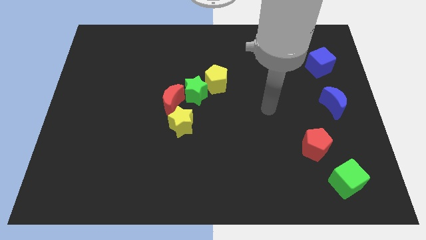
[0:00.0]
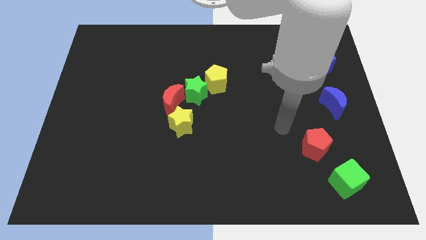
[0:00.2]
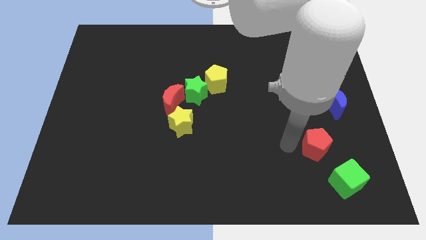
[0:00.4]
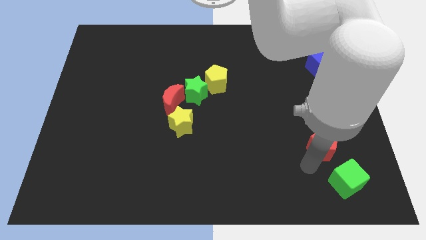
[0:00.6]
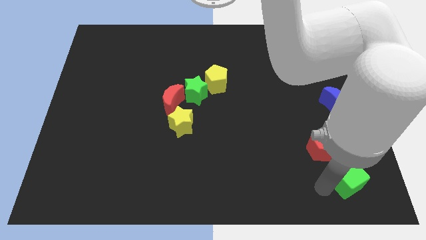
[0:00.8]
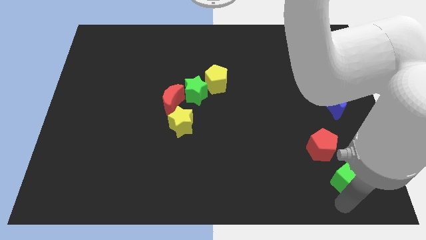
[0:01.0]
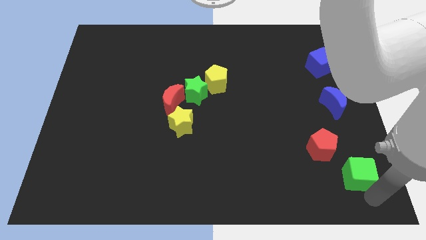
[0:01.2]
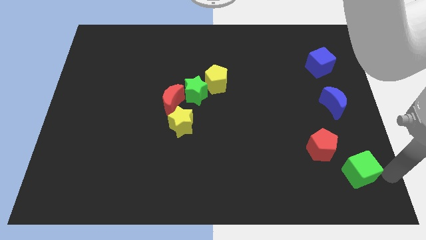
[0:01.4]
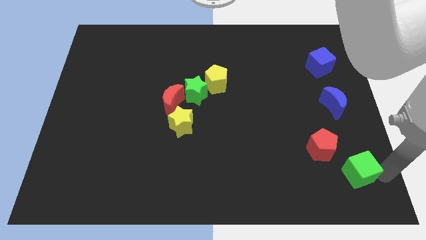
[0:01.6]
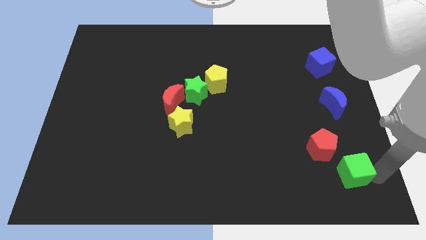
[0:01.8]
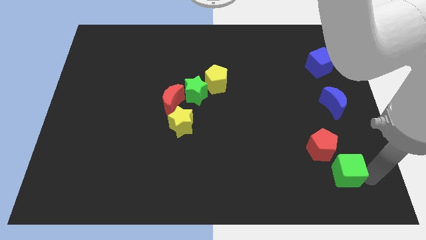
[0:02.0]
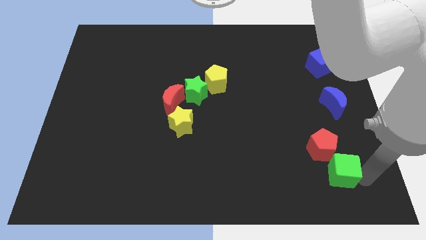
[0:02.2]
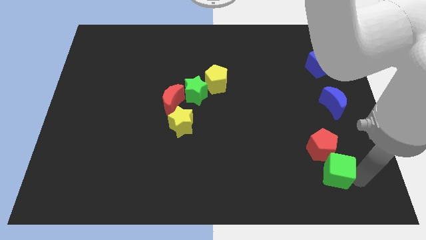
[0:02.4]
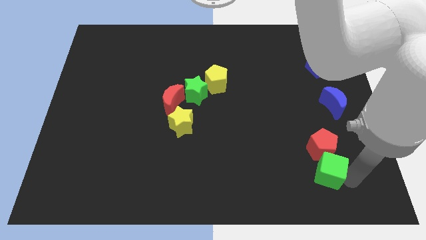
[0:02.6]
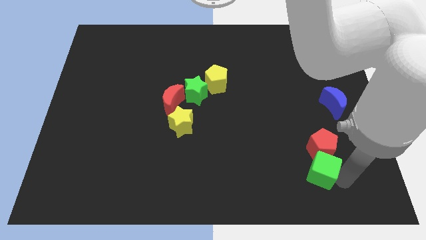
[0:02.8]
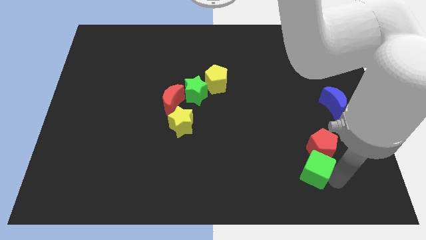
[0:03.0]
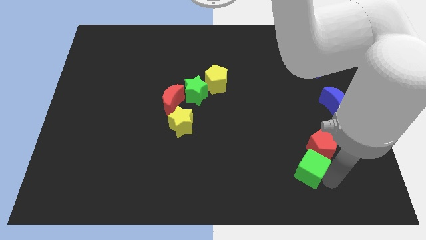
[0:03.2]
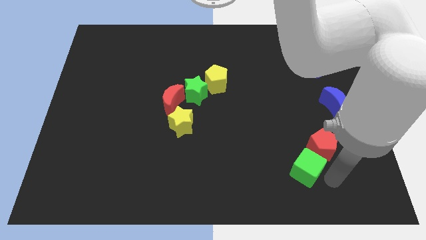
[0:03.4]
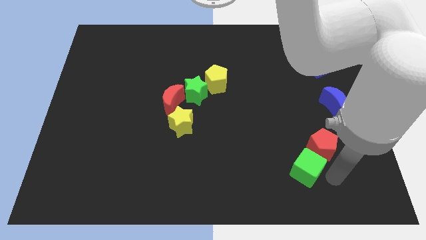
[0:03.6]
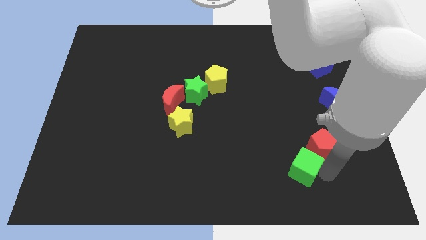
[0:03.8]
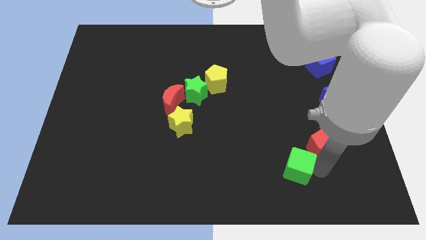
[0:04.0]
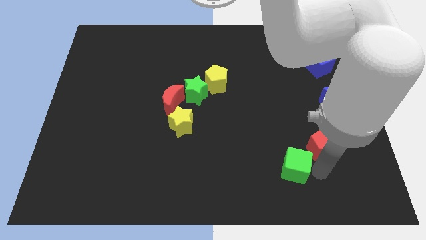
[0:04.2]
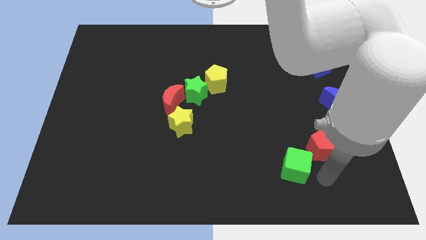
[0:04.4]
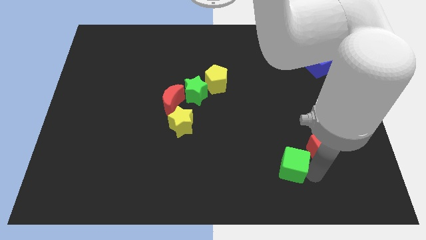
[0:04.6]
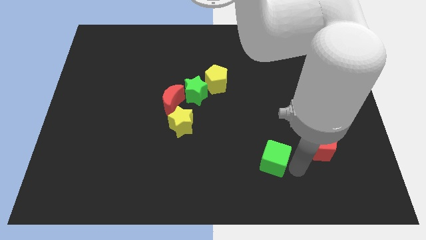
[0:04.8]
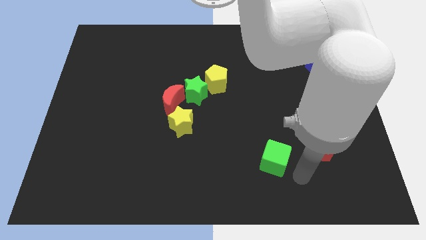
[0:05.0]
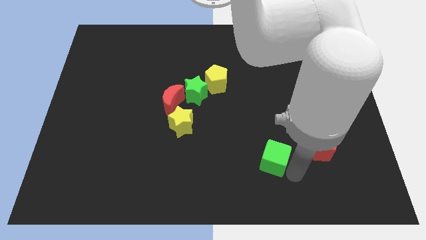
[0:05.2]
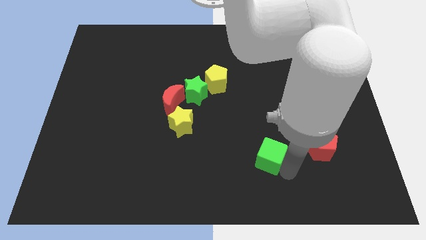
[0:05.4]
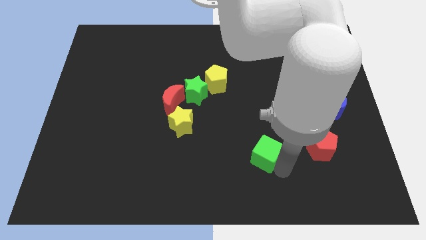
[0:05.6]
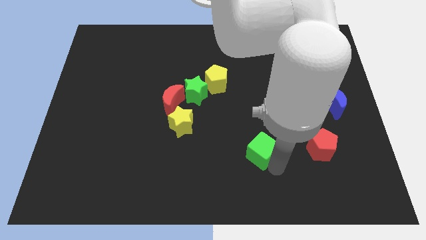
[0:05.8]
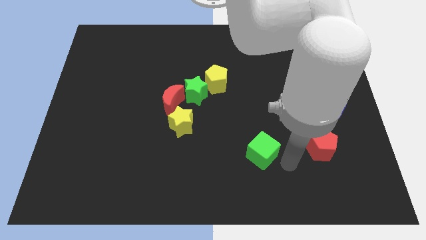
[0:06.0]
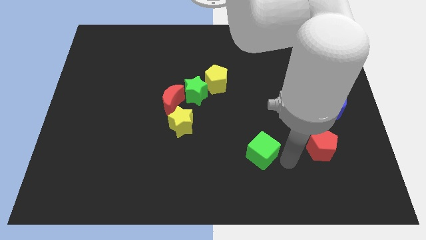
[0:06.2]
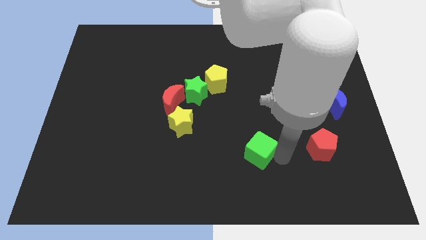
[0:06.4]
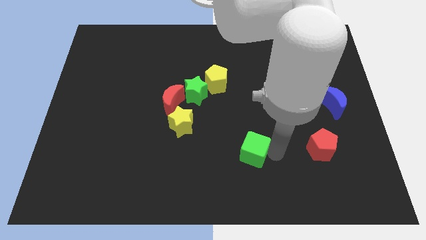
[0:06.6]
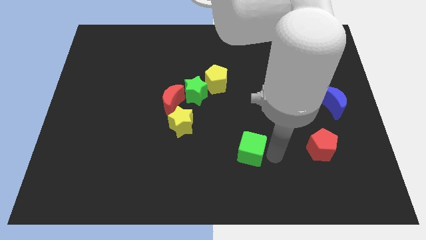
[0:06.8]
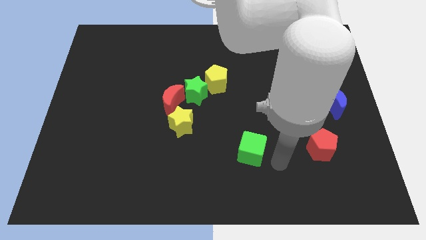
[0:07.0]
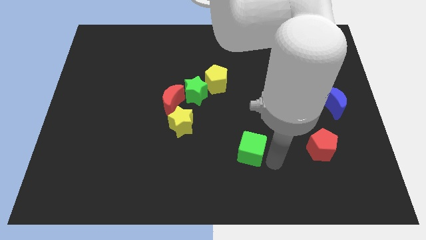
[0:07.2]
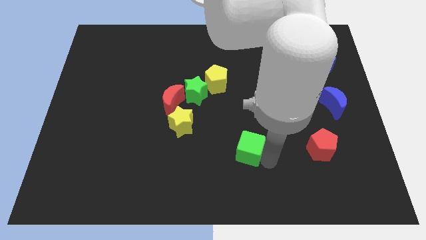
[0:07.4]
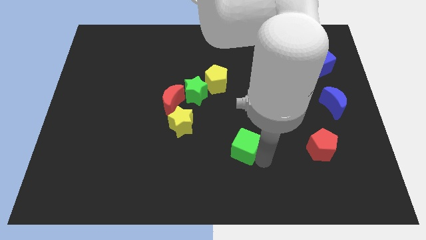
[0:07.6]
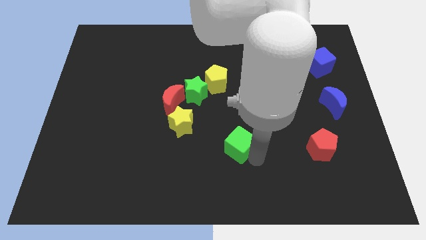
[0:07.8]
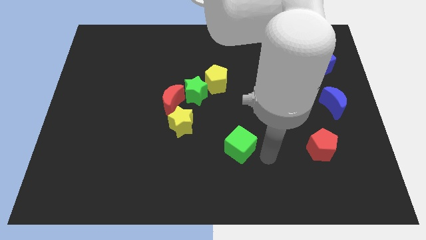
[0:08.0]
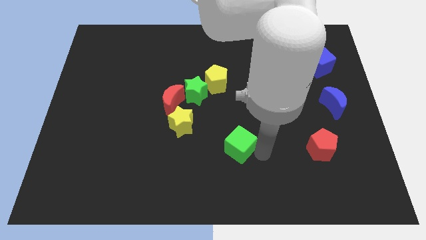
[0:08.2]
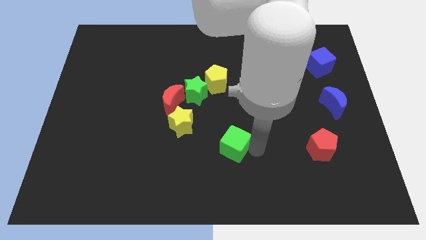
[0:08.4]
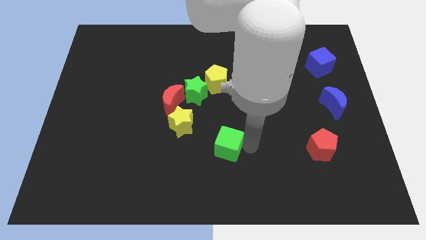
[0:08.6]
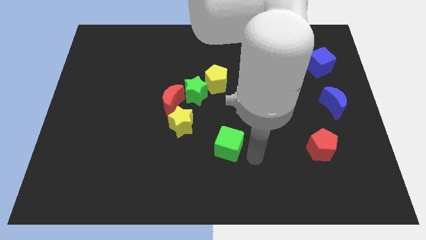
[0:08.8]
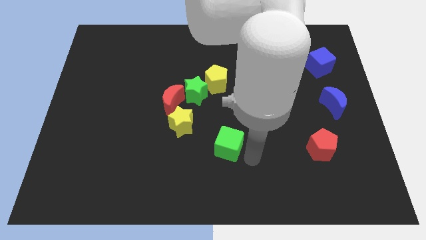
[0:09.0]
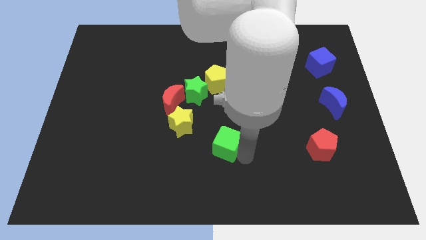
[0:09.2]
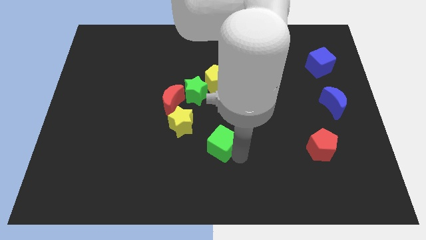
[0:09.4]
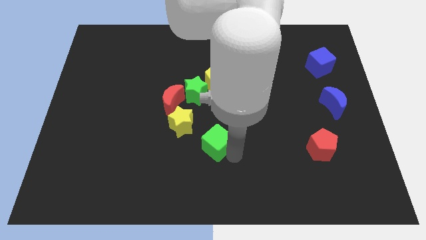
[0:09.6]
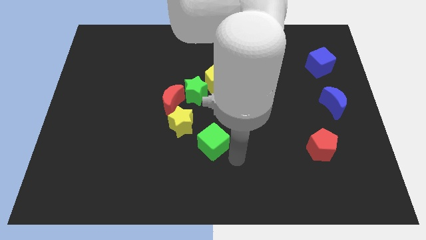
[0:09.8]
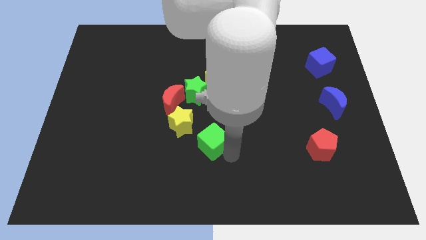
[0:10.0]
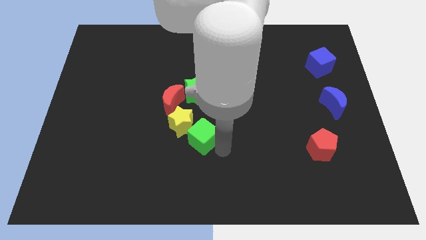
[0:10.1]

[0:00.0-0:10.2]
put the green cube next to the yellow star

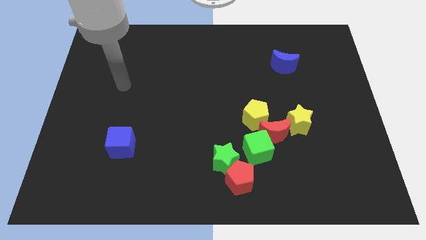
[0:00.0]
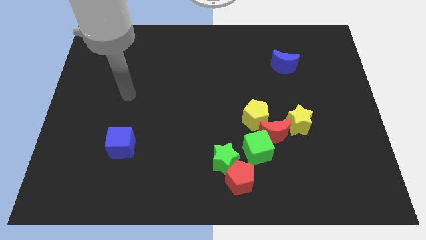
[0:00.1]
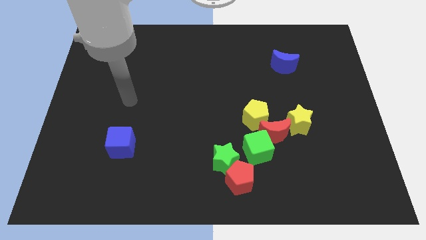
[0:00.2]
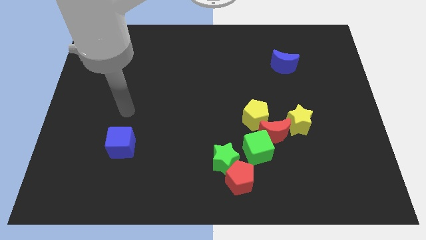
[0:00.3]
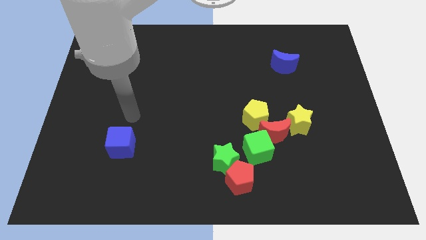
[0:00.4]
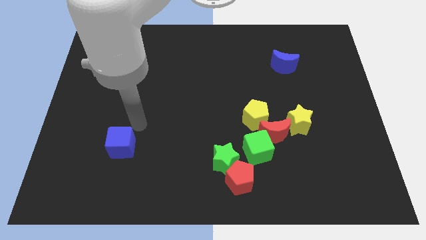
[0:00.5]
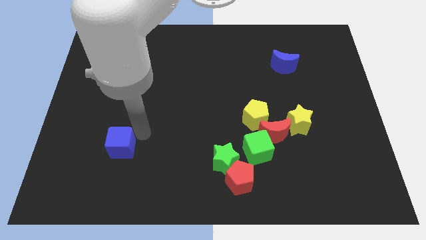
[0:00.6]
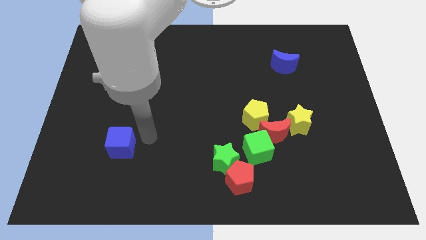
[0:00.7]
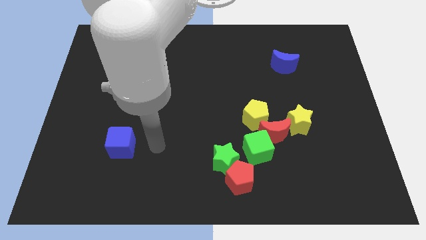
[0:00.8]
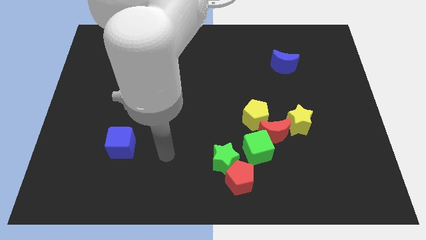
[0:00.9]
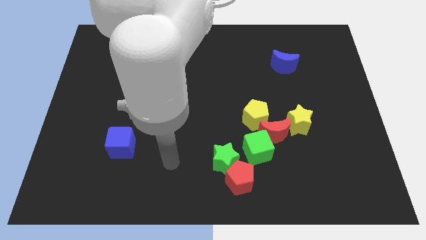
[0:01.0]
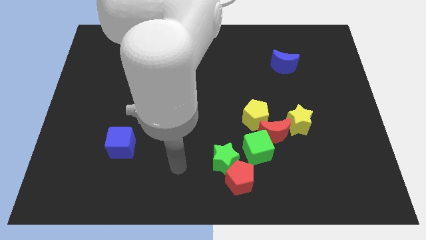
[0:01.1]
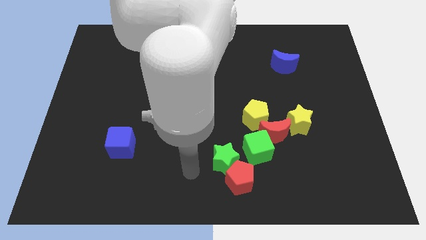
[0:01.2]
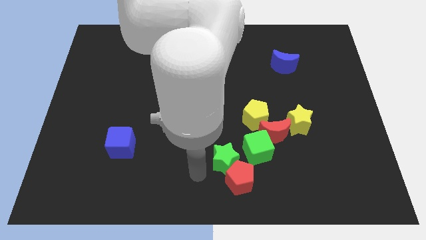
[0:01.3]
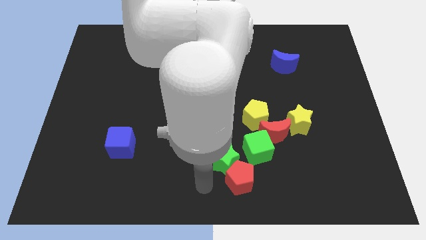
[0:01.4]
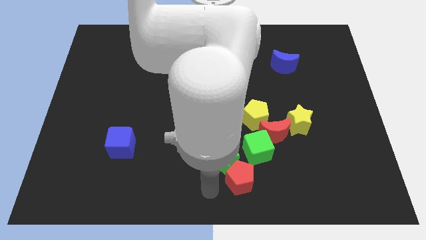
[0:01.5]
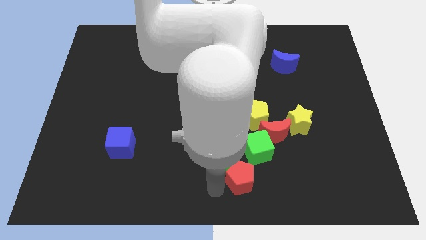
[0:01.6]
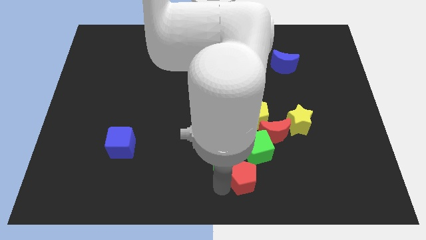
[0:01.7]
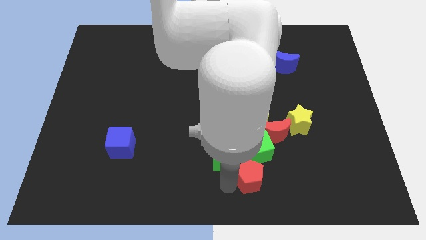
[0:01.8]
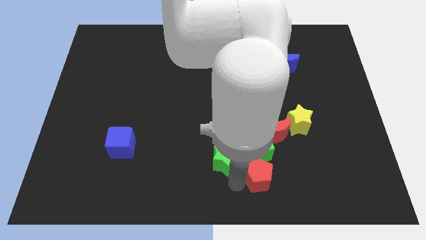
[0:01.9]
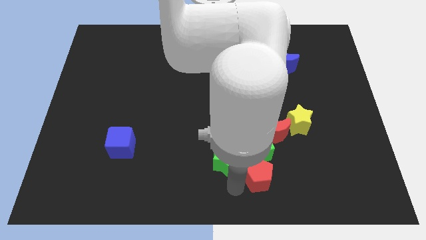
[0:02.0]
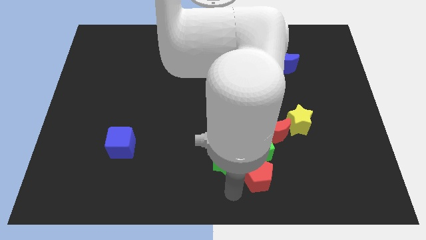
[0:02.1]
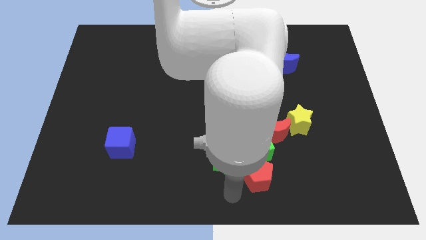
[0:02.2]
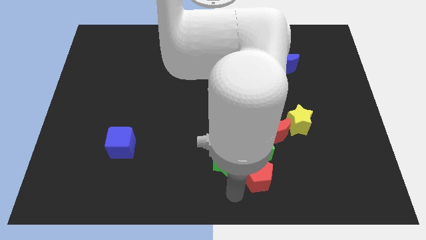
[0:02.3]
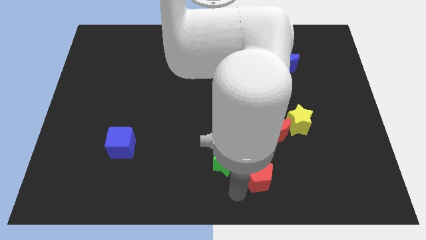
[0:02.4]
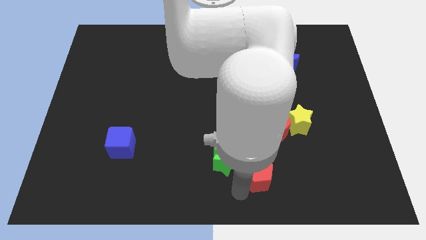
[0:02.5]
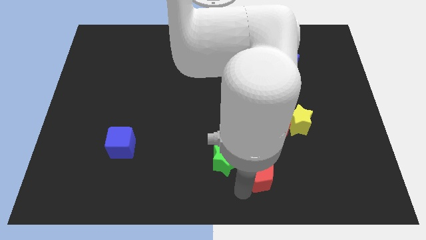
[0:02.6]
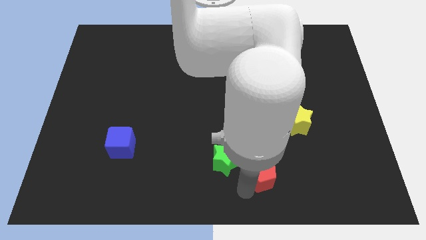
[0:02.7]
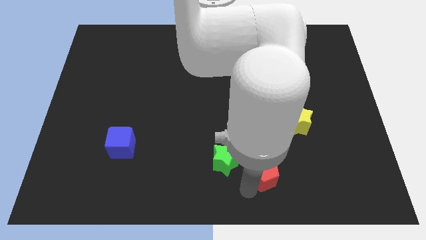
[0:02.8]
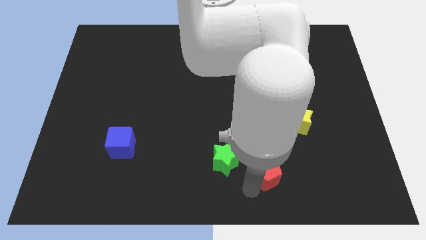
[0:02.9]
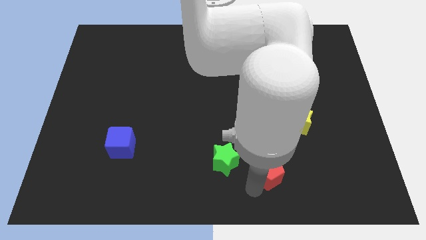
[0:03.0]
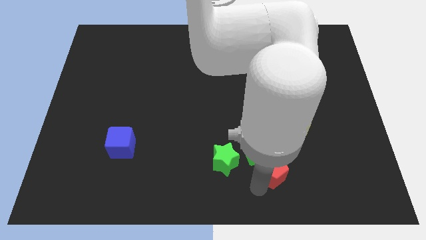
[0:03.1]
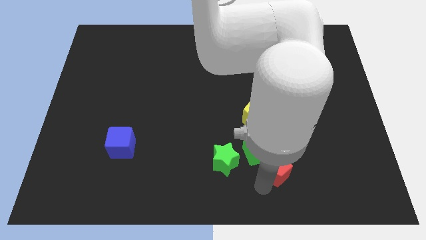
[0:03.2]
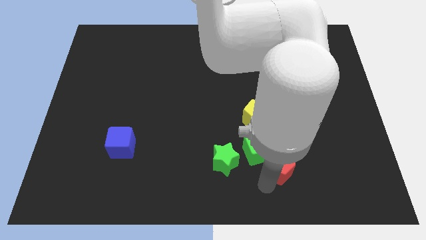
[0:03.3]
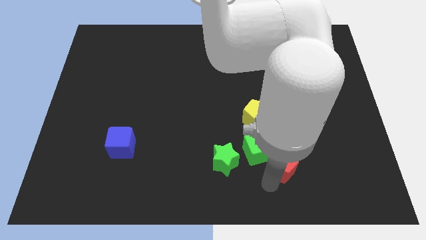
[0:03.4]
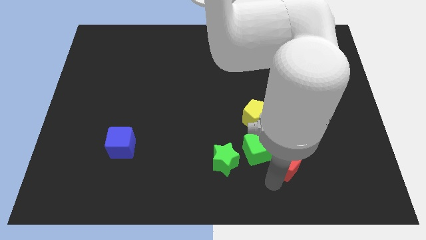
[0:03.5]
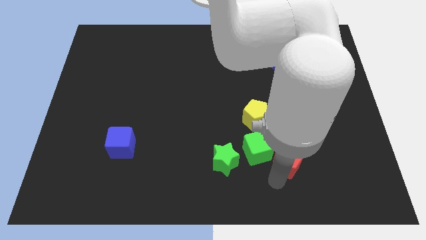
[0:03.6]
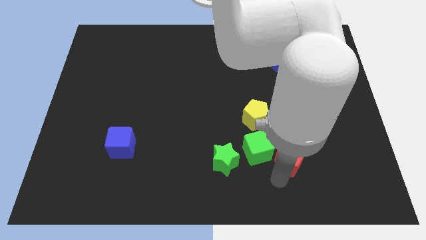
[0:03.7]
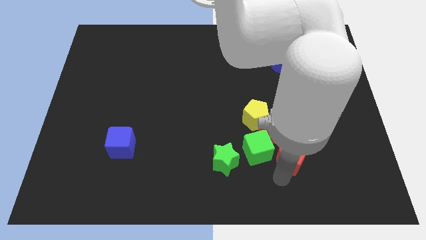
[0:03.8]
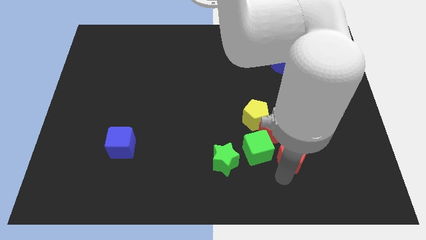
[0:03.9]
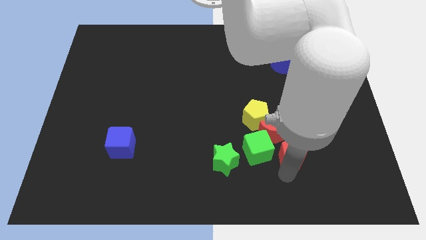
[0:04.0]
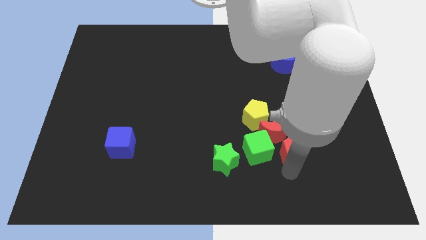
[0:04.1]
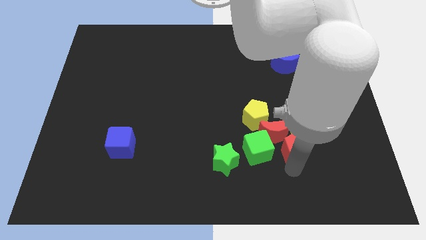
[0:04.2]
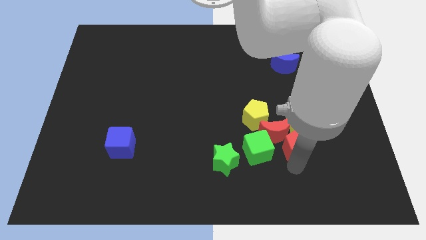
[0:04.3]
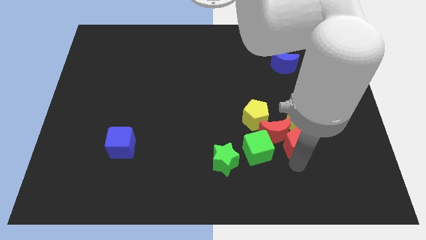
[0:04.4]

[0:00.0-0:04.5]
move the red pentagon to the yellow star
